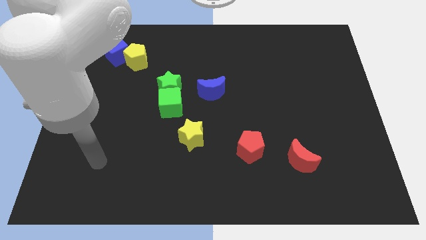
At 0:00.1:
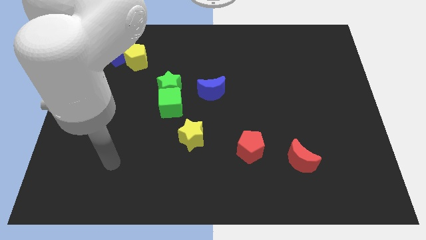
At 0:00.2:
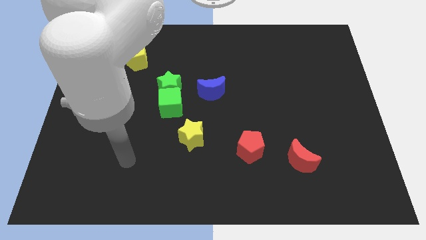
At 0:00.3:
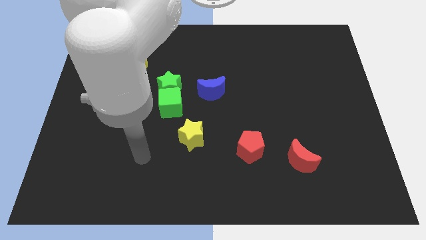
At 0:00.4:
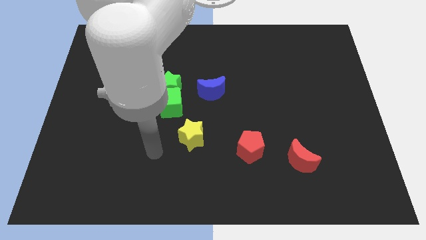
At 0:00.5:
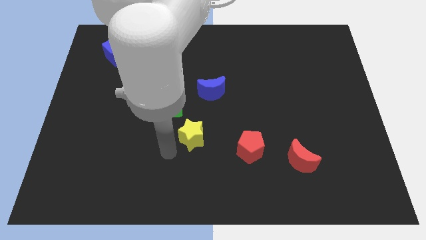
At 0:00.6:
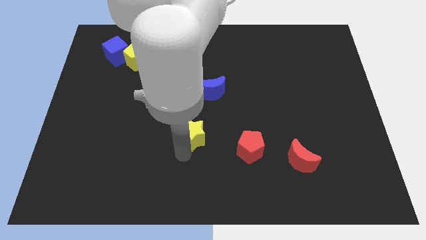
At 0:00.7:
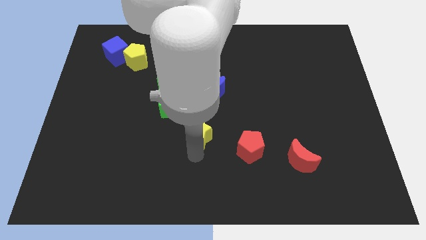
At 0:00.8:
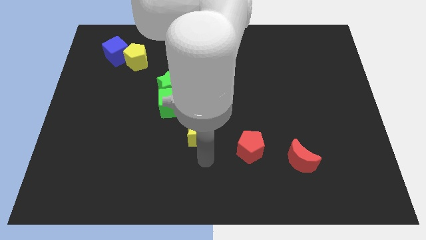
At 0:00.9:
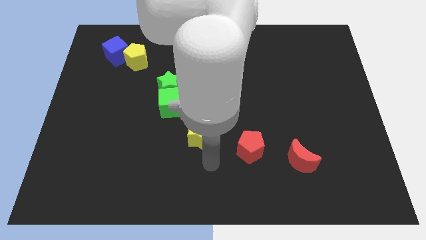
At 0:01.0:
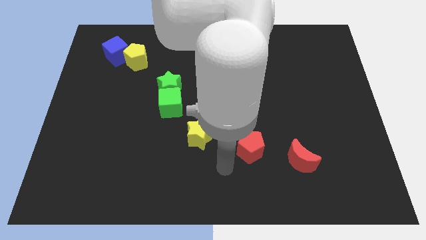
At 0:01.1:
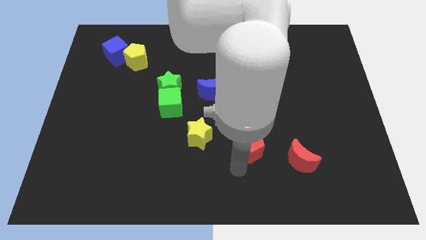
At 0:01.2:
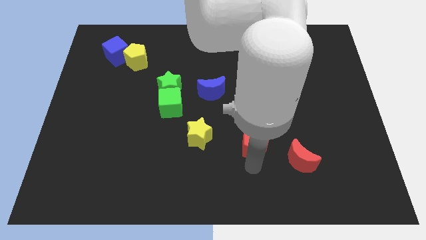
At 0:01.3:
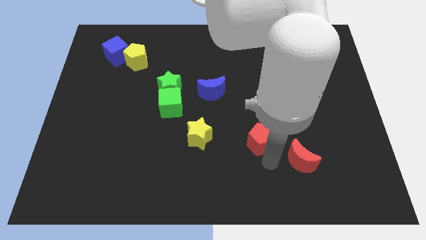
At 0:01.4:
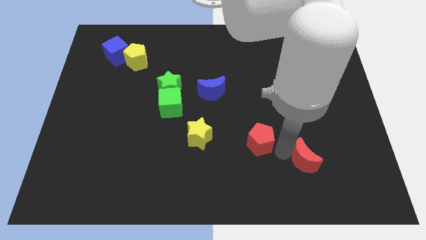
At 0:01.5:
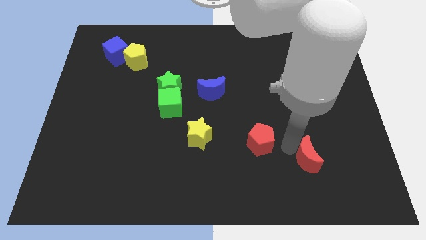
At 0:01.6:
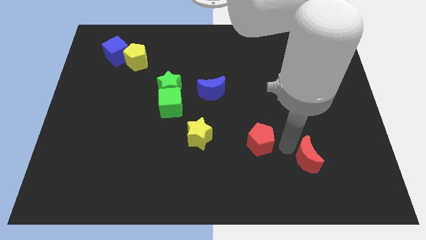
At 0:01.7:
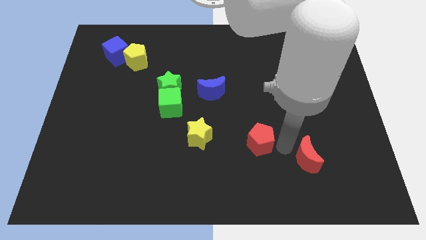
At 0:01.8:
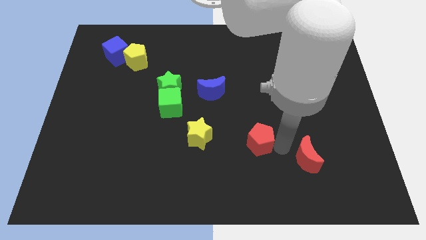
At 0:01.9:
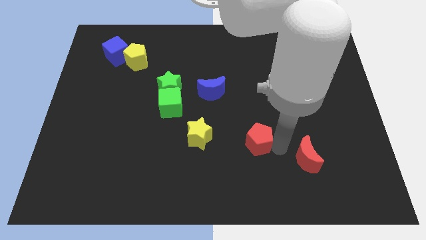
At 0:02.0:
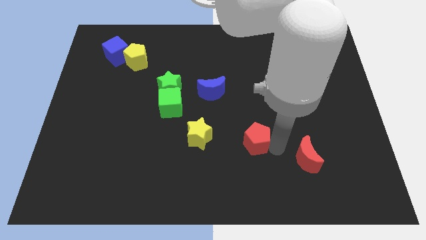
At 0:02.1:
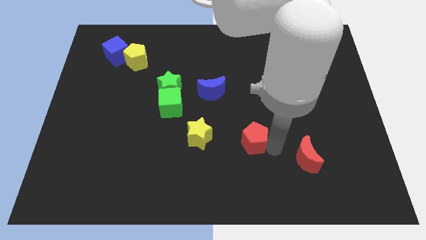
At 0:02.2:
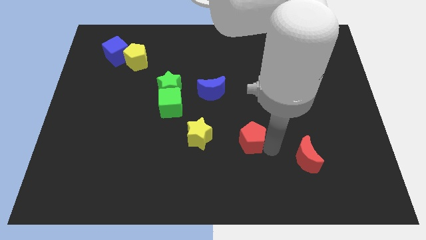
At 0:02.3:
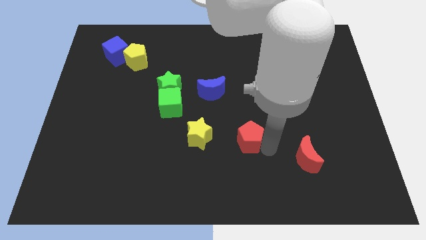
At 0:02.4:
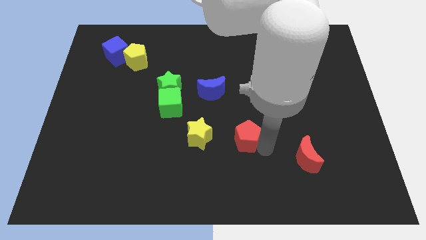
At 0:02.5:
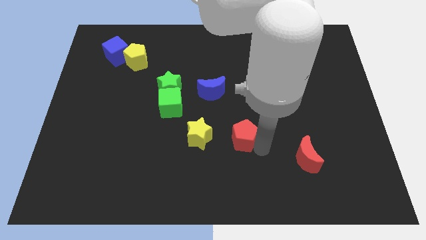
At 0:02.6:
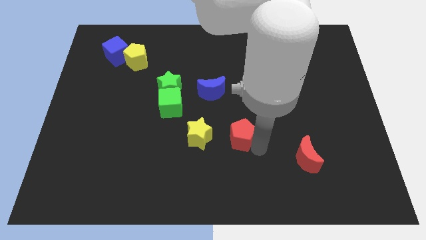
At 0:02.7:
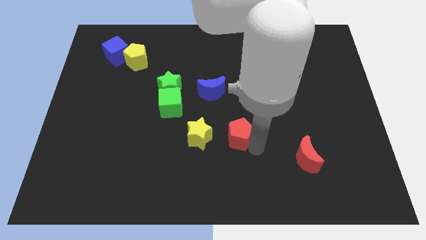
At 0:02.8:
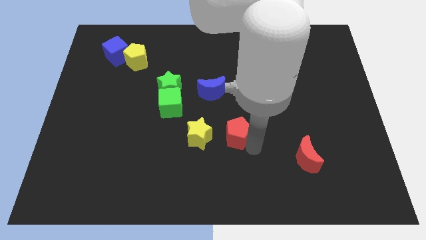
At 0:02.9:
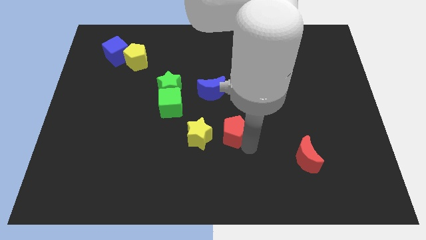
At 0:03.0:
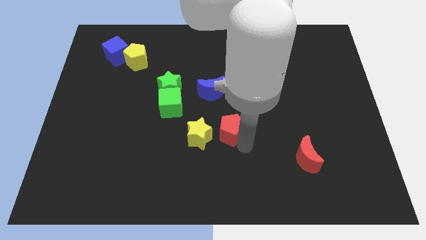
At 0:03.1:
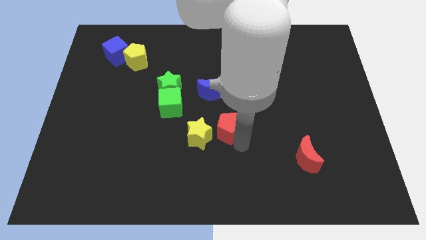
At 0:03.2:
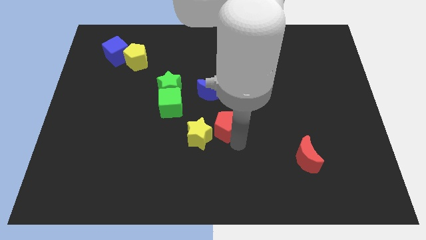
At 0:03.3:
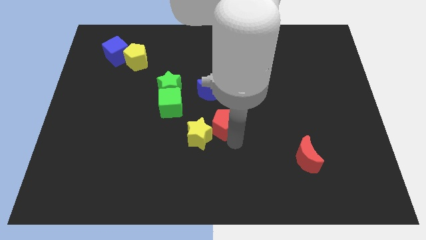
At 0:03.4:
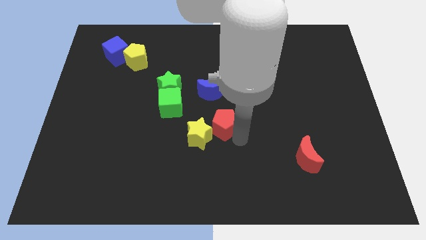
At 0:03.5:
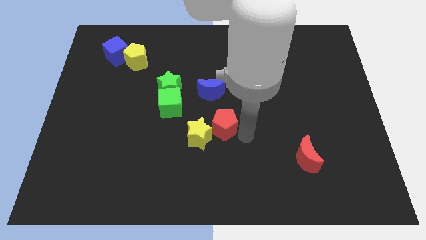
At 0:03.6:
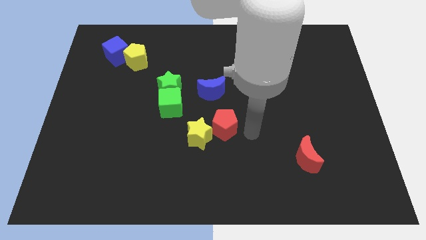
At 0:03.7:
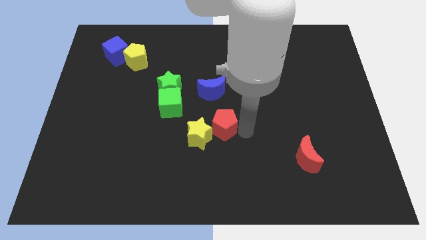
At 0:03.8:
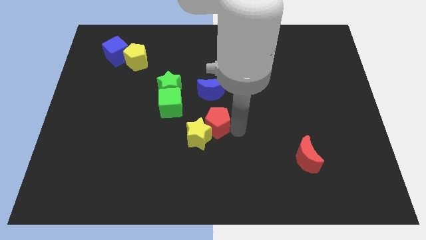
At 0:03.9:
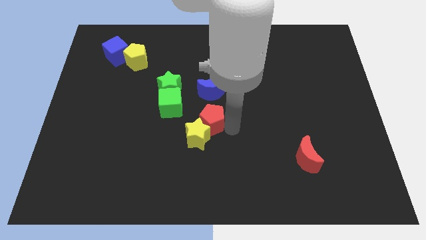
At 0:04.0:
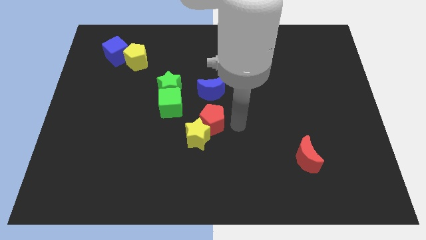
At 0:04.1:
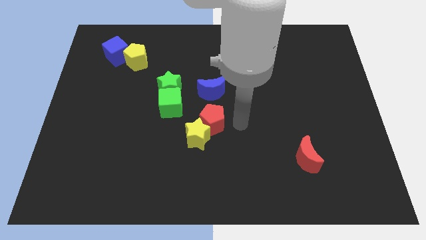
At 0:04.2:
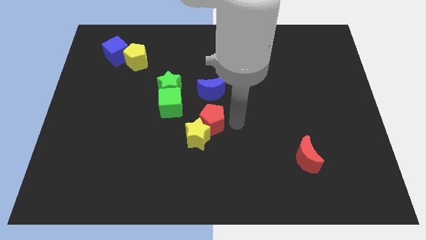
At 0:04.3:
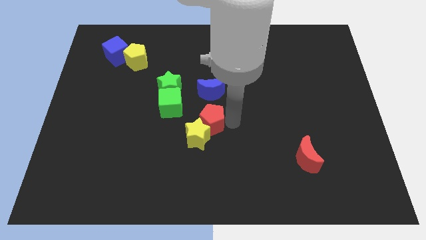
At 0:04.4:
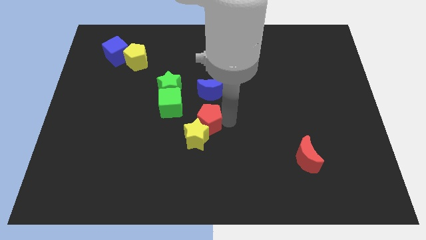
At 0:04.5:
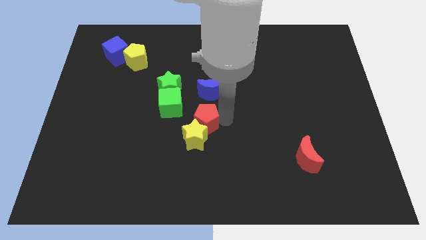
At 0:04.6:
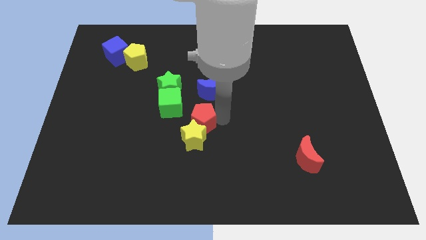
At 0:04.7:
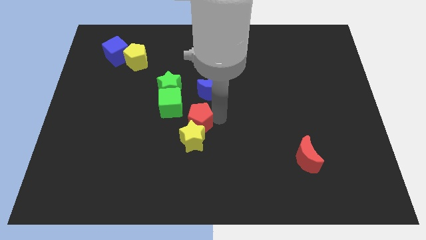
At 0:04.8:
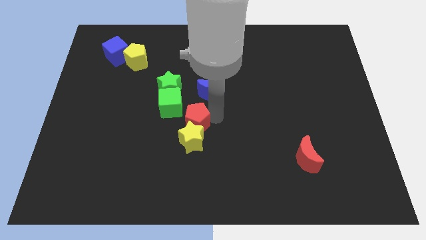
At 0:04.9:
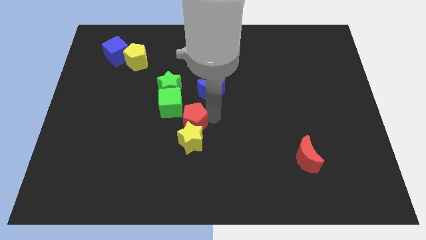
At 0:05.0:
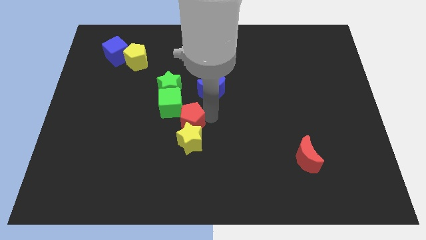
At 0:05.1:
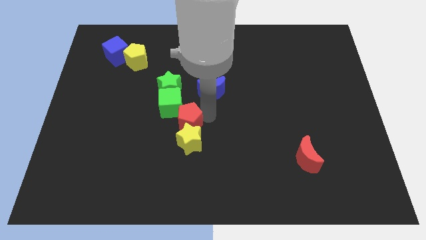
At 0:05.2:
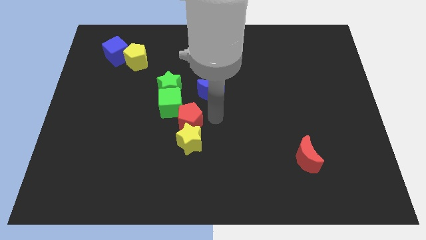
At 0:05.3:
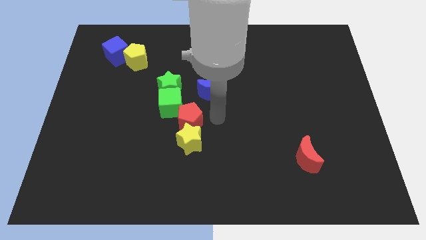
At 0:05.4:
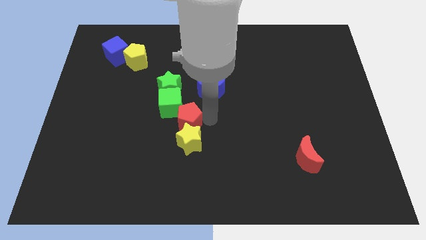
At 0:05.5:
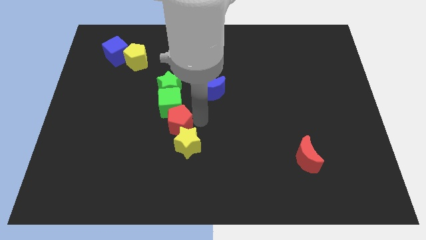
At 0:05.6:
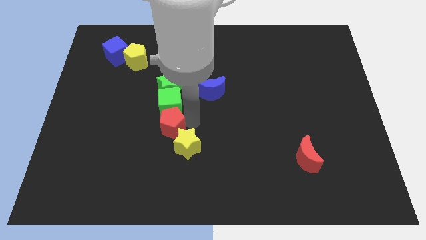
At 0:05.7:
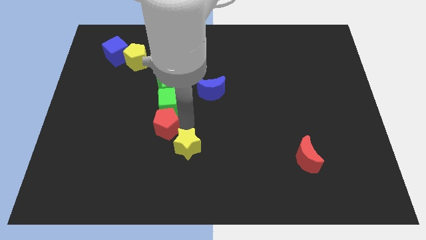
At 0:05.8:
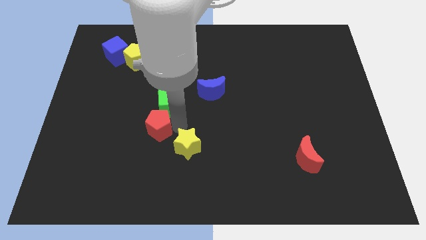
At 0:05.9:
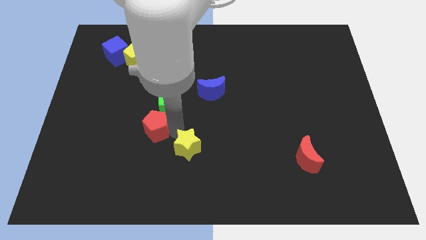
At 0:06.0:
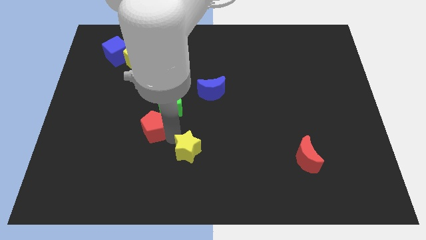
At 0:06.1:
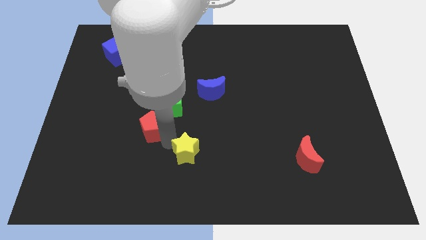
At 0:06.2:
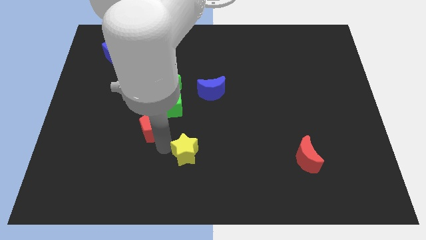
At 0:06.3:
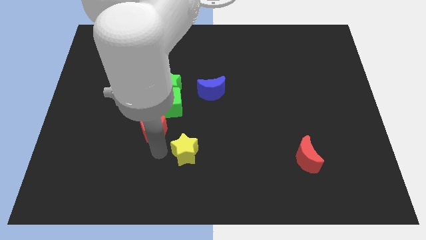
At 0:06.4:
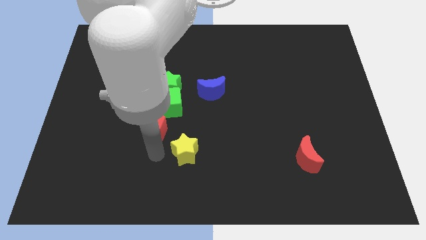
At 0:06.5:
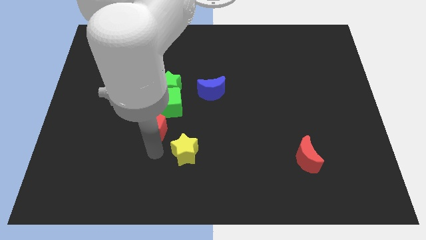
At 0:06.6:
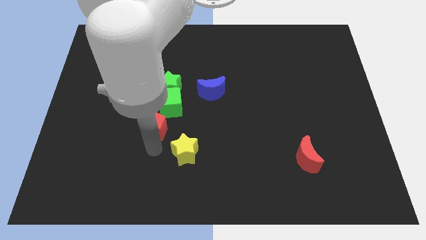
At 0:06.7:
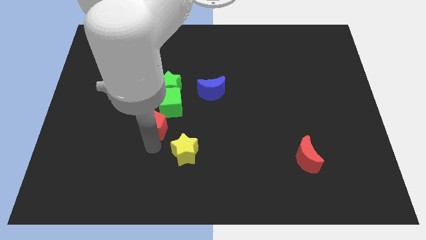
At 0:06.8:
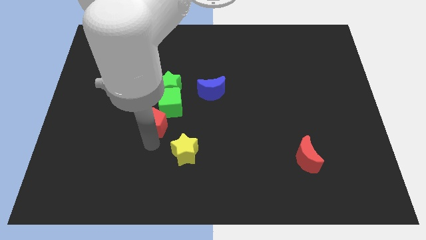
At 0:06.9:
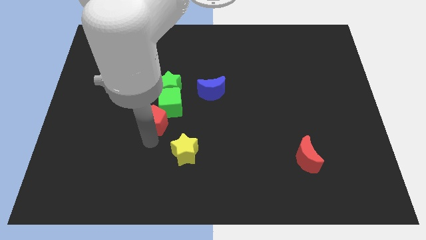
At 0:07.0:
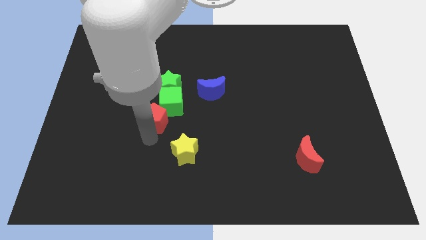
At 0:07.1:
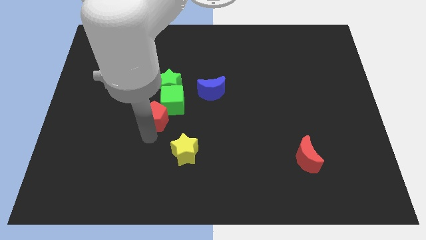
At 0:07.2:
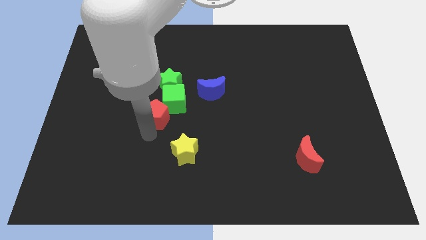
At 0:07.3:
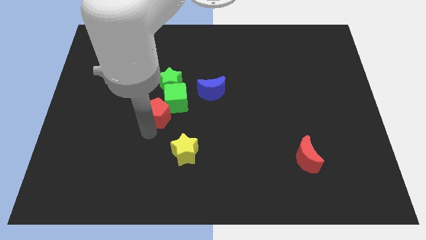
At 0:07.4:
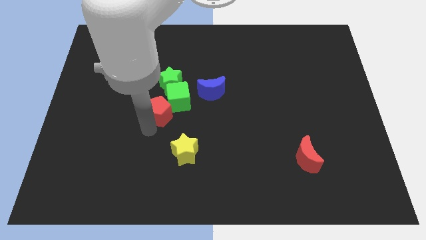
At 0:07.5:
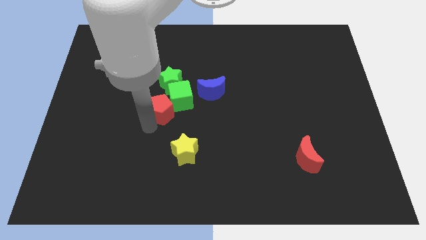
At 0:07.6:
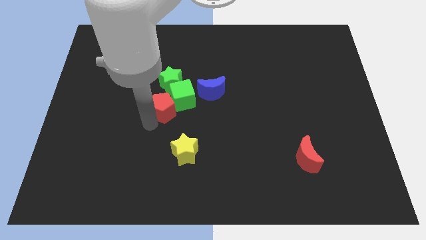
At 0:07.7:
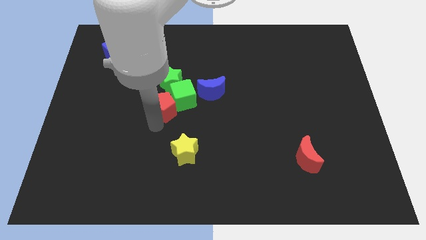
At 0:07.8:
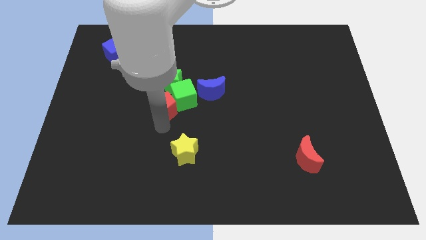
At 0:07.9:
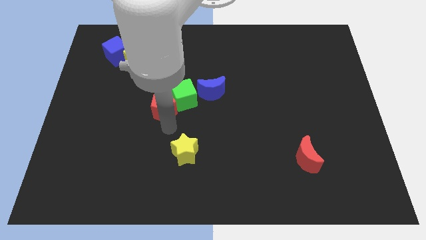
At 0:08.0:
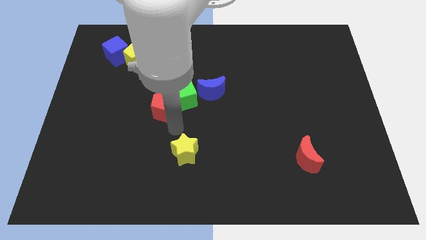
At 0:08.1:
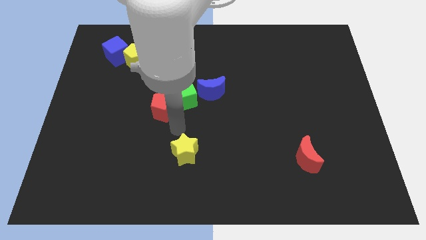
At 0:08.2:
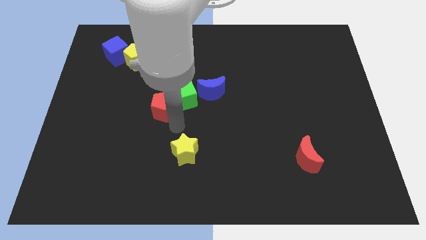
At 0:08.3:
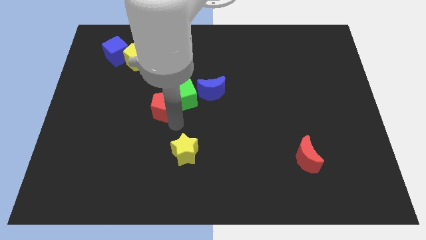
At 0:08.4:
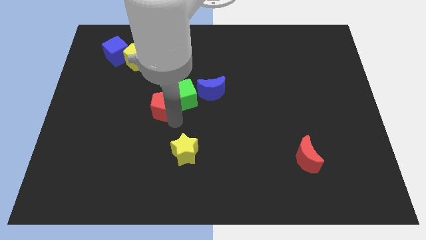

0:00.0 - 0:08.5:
slide the red pentagon just left of the blue moon
